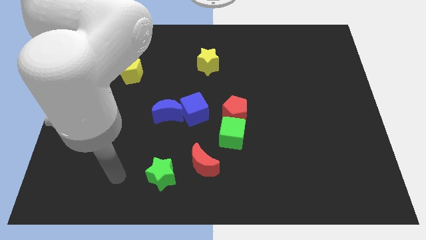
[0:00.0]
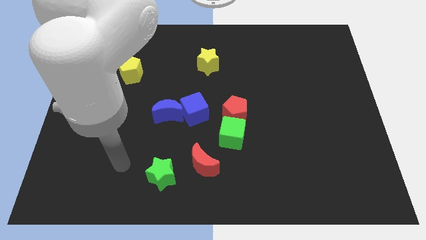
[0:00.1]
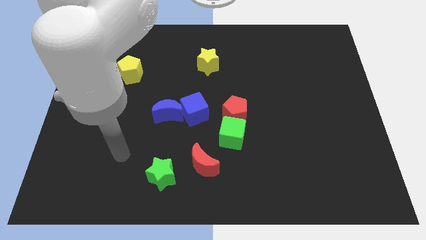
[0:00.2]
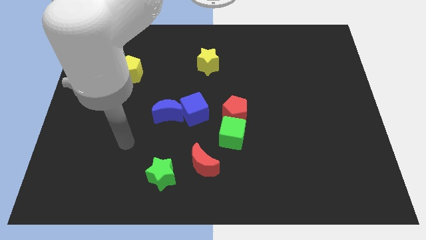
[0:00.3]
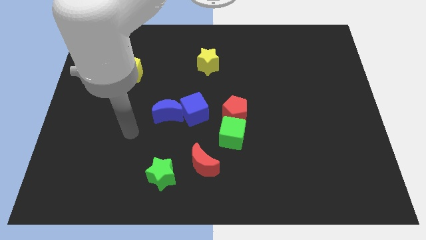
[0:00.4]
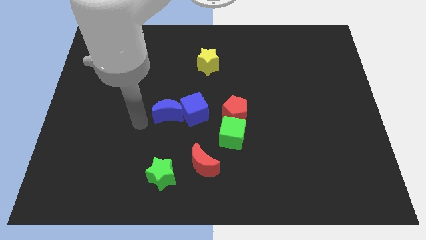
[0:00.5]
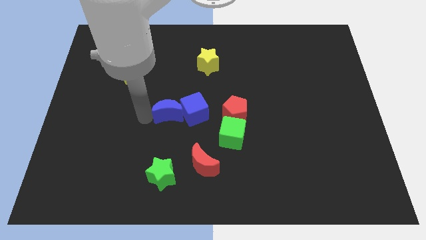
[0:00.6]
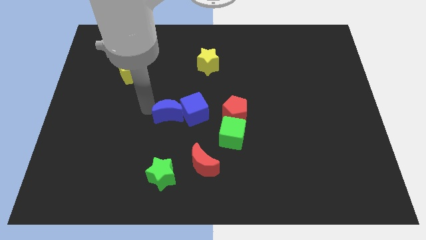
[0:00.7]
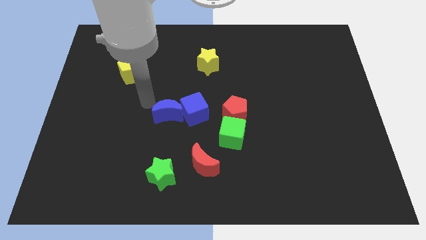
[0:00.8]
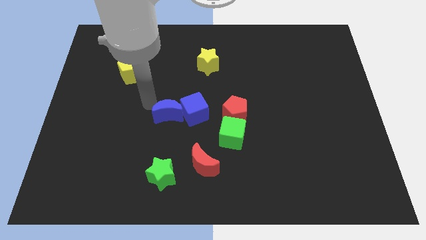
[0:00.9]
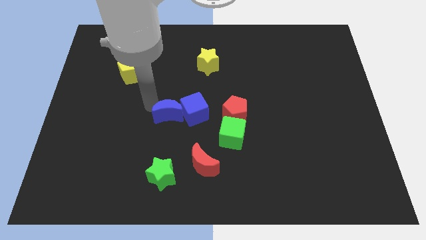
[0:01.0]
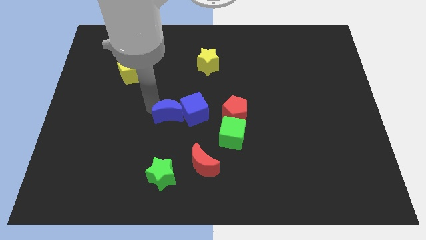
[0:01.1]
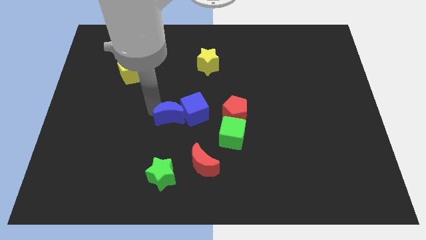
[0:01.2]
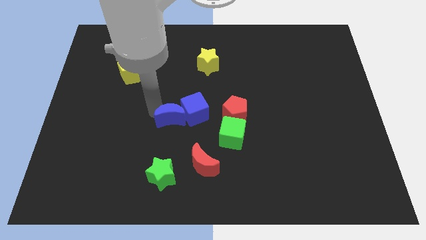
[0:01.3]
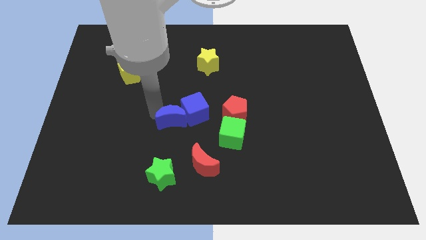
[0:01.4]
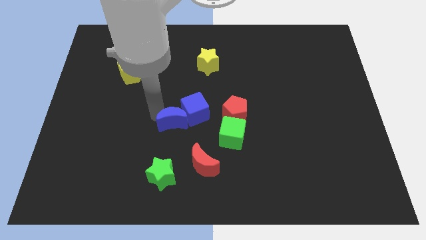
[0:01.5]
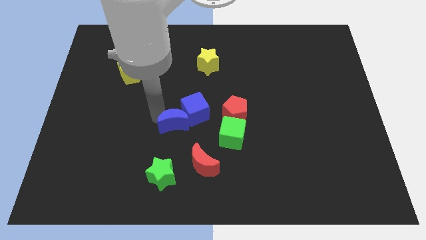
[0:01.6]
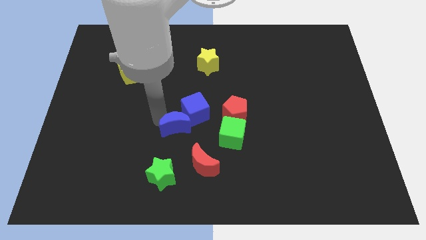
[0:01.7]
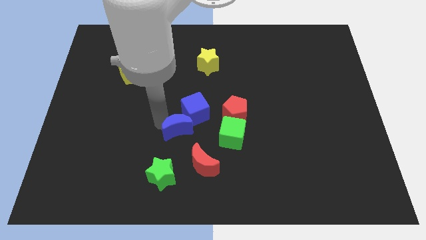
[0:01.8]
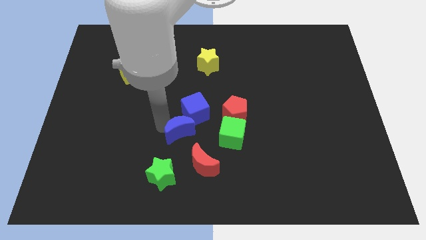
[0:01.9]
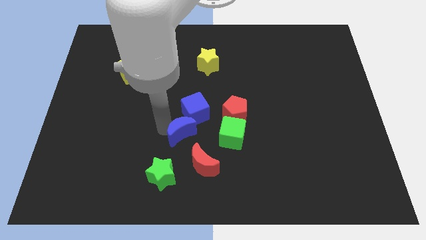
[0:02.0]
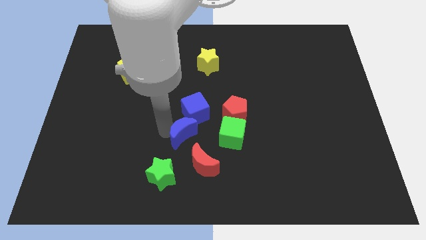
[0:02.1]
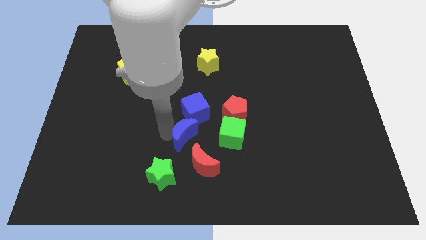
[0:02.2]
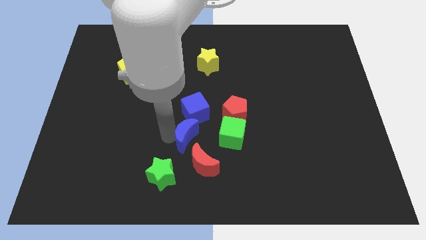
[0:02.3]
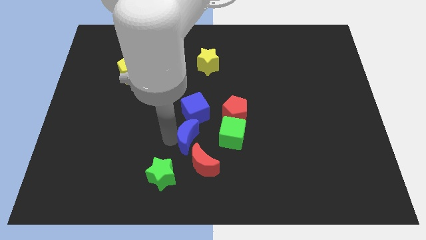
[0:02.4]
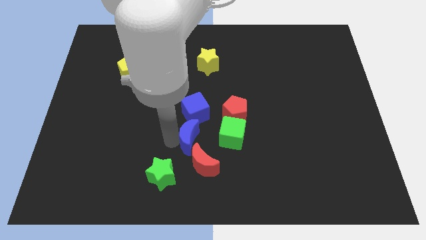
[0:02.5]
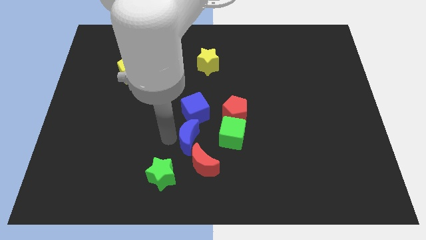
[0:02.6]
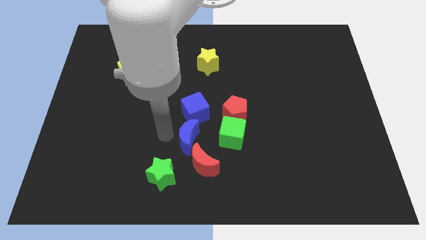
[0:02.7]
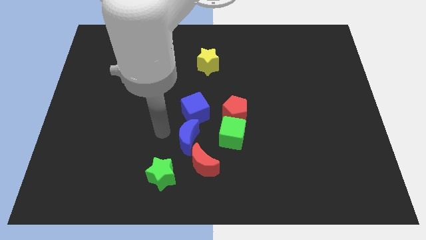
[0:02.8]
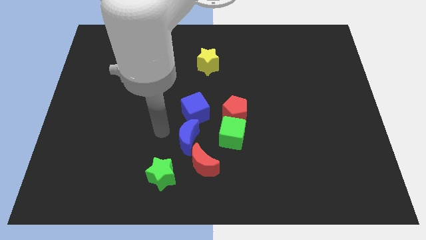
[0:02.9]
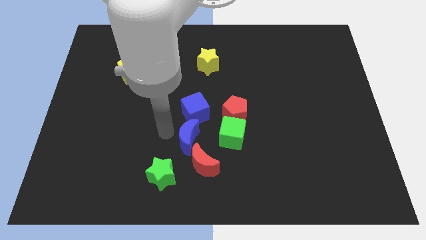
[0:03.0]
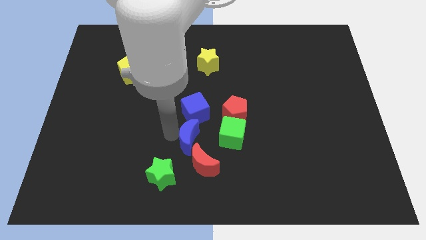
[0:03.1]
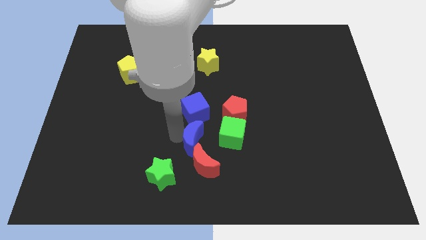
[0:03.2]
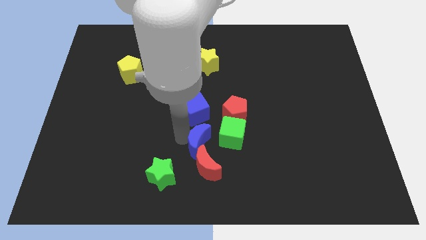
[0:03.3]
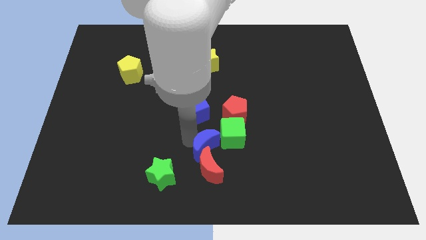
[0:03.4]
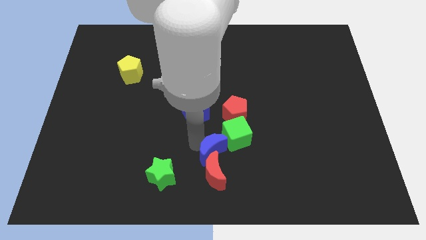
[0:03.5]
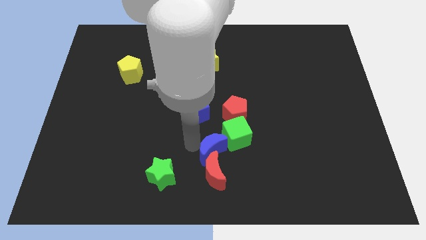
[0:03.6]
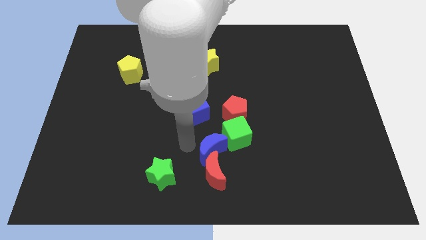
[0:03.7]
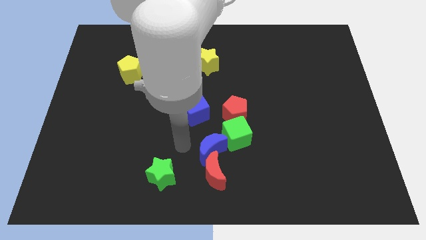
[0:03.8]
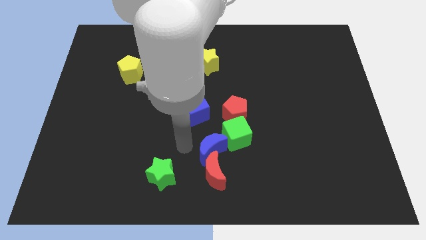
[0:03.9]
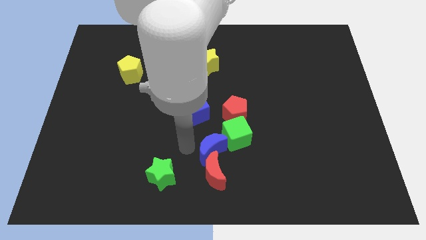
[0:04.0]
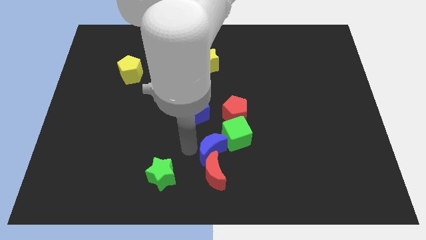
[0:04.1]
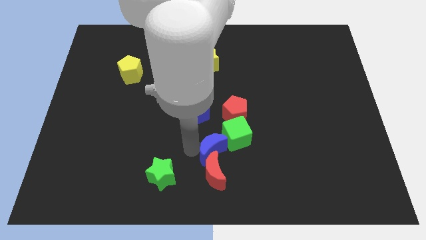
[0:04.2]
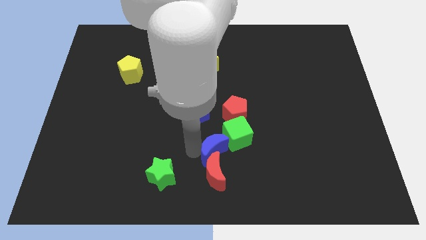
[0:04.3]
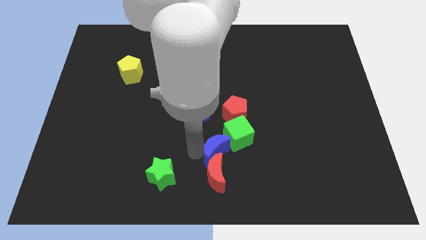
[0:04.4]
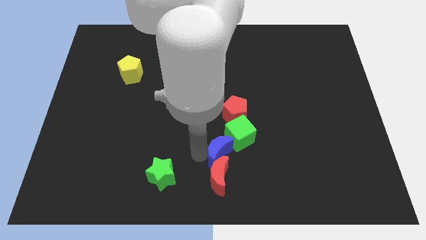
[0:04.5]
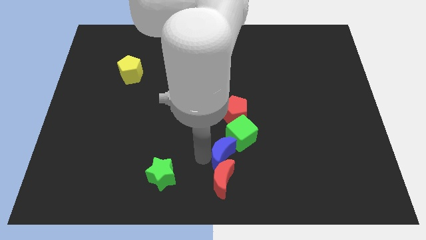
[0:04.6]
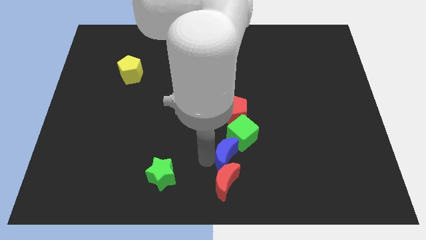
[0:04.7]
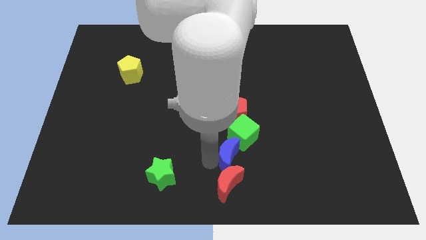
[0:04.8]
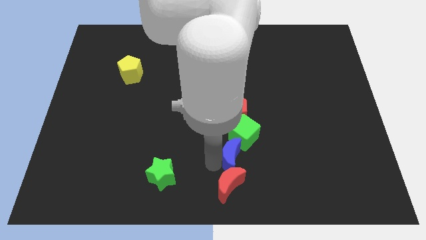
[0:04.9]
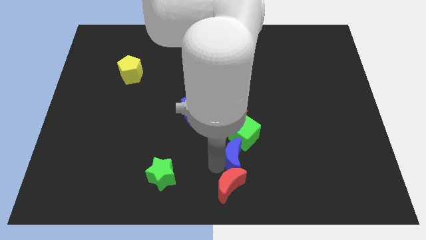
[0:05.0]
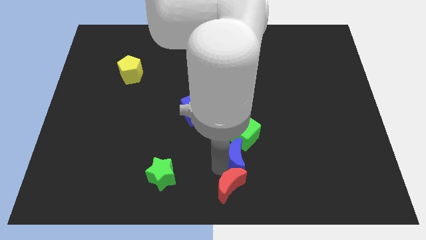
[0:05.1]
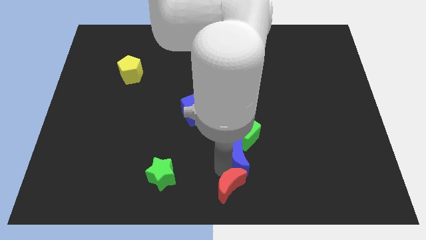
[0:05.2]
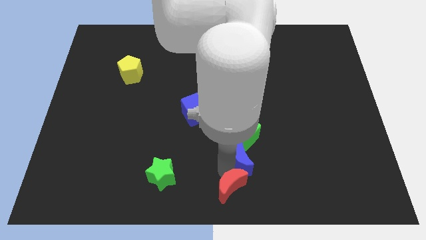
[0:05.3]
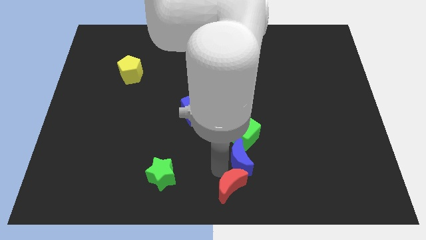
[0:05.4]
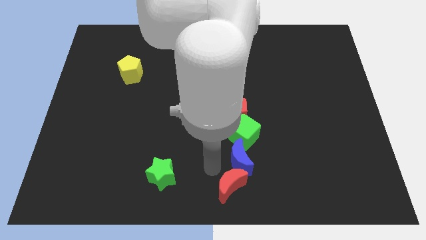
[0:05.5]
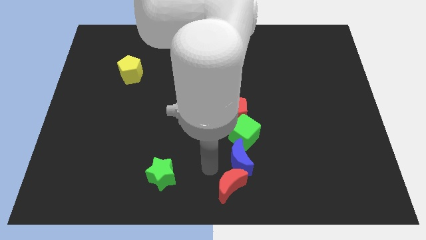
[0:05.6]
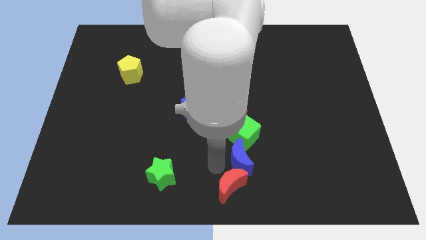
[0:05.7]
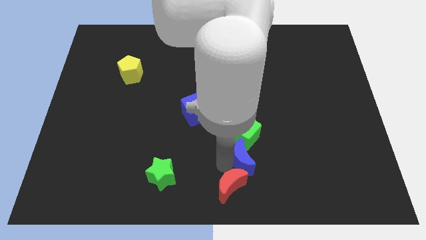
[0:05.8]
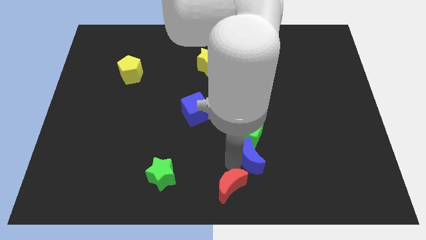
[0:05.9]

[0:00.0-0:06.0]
slide the blue moon diagonally down and to the right of the green cube

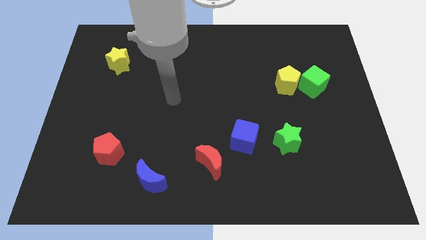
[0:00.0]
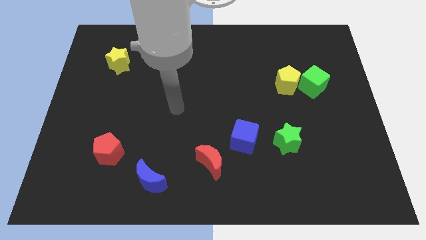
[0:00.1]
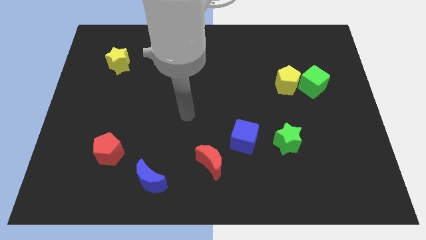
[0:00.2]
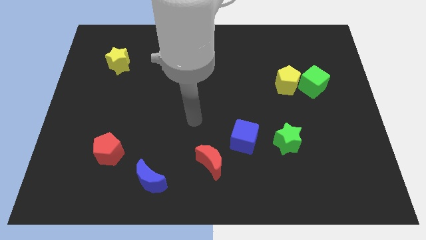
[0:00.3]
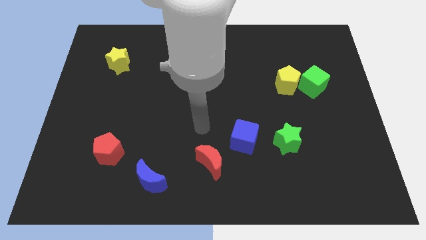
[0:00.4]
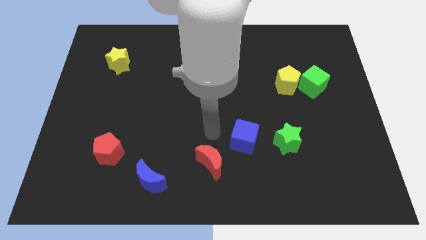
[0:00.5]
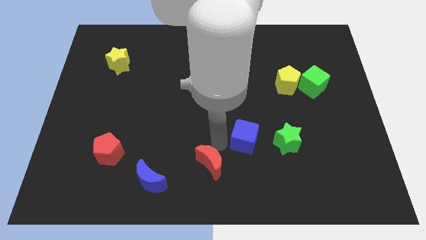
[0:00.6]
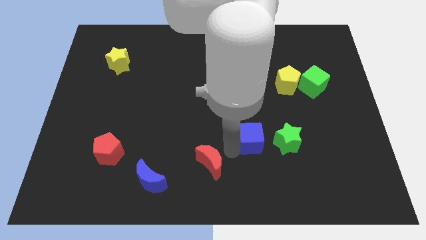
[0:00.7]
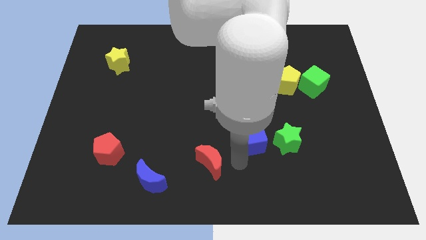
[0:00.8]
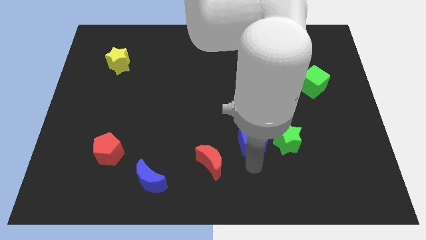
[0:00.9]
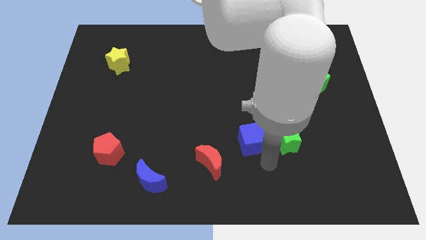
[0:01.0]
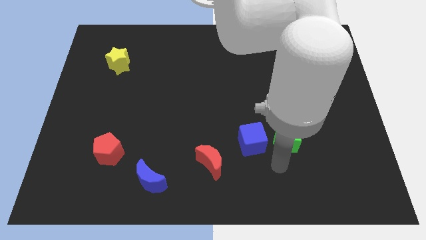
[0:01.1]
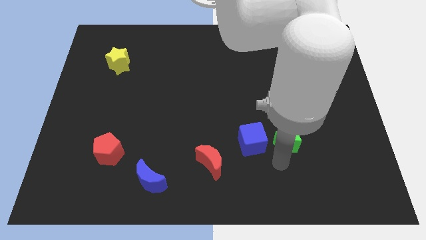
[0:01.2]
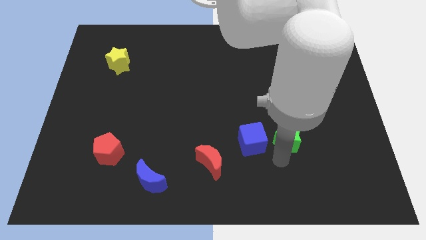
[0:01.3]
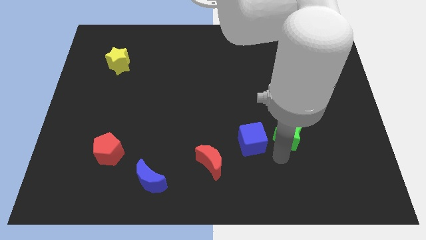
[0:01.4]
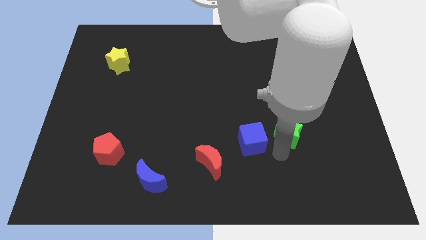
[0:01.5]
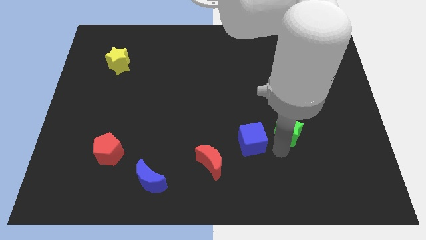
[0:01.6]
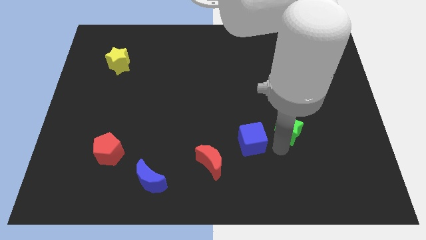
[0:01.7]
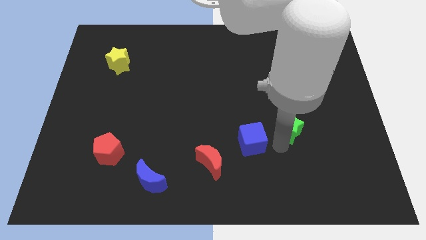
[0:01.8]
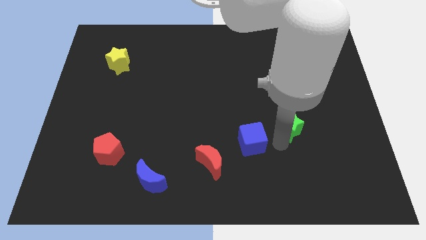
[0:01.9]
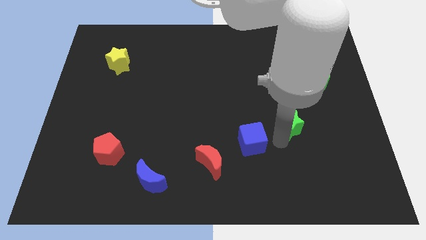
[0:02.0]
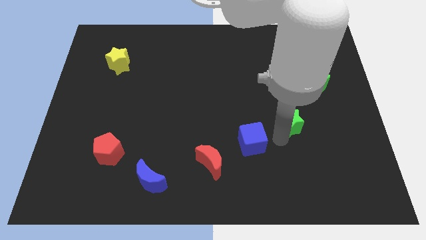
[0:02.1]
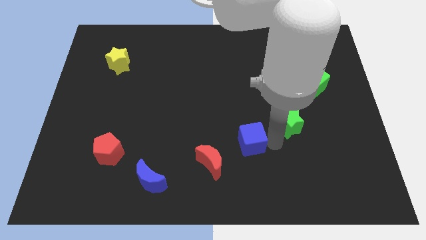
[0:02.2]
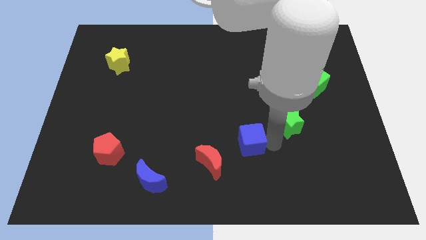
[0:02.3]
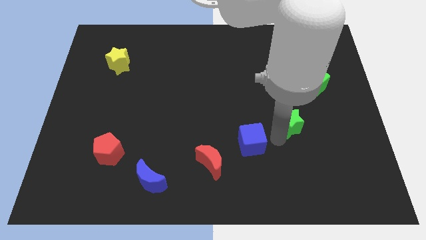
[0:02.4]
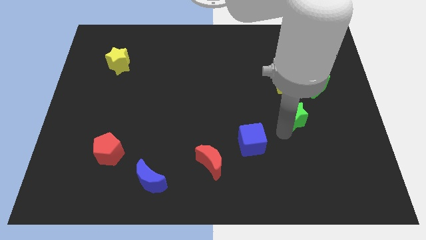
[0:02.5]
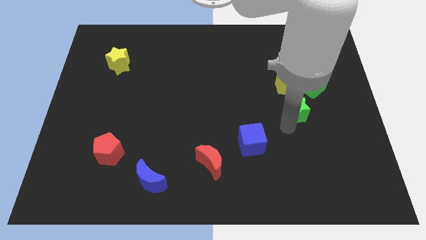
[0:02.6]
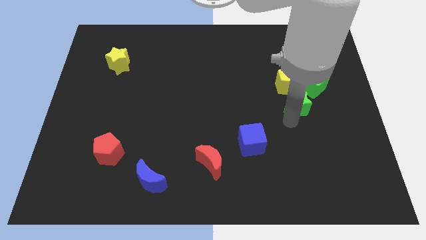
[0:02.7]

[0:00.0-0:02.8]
move the green star diagonally down and to the right of the yellow pentagon
